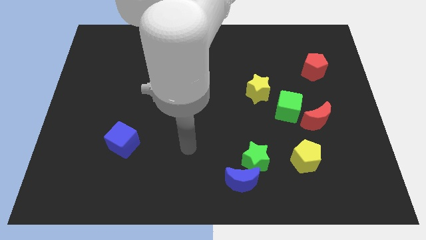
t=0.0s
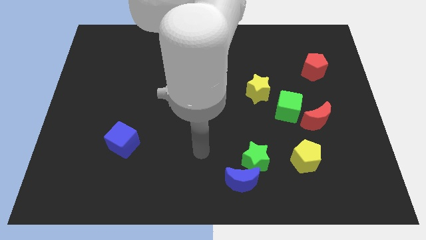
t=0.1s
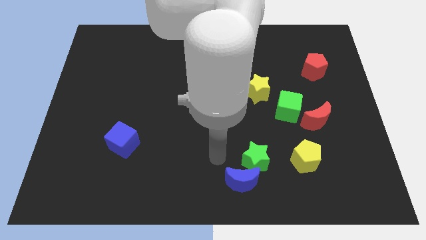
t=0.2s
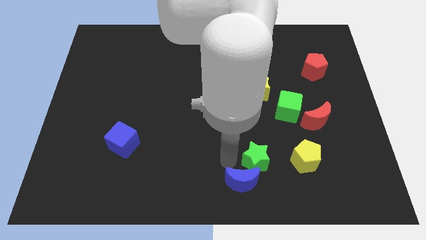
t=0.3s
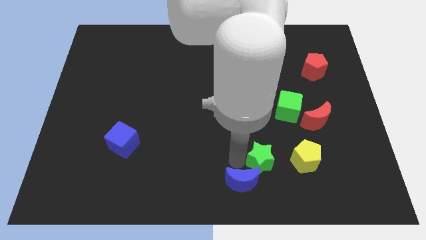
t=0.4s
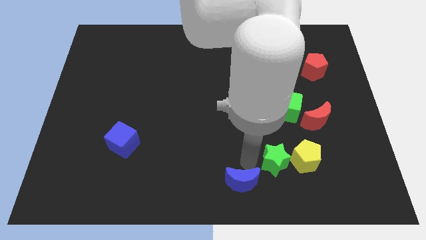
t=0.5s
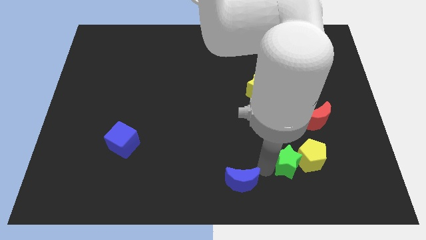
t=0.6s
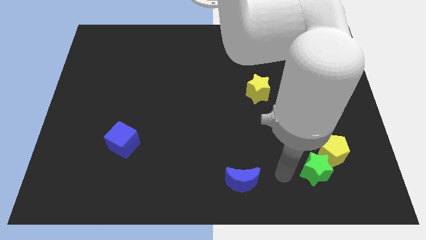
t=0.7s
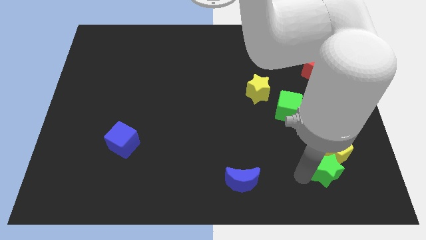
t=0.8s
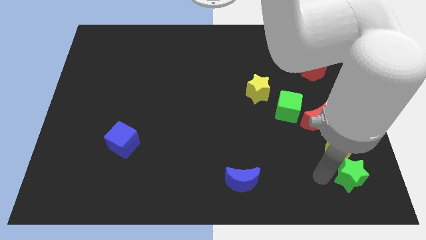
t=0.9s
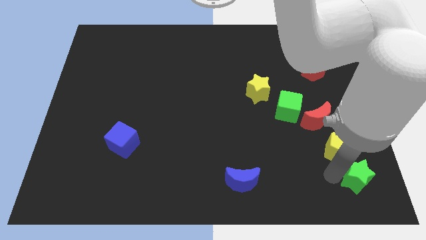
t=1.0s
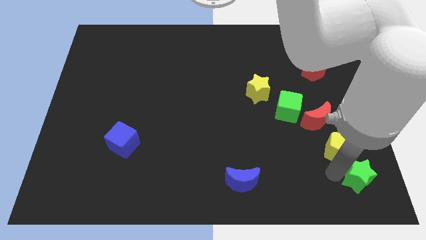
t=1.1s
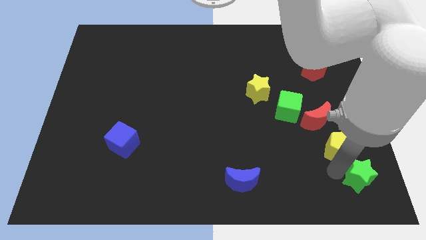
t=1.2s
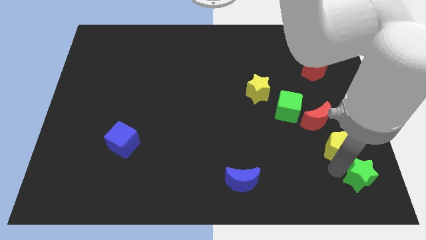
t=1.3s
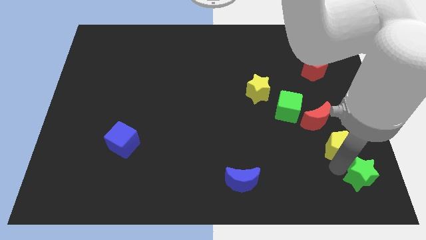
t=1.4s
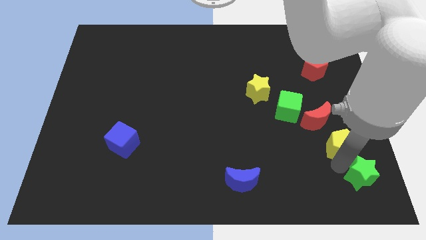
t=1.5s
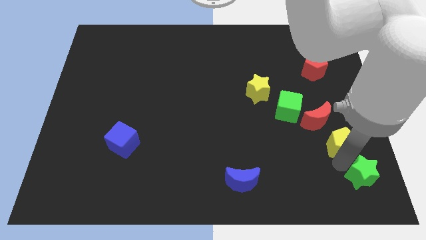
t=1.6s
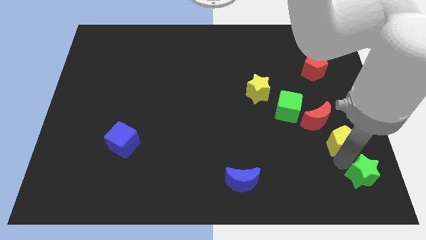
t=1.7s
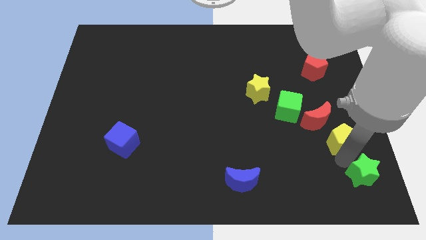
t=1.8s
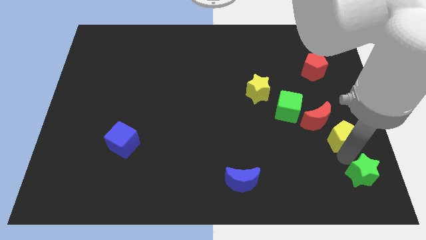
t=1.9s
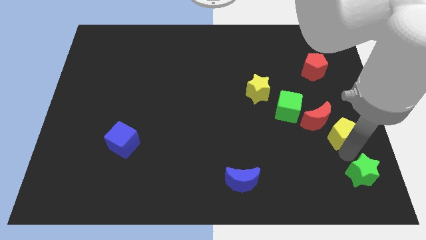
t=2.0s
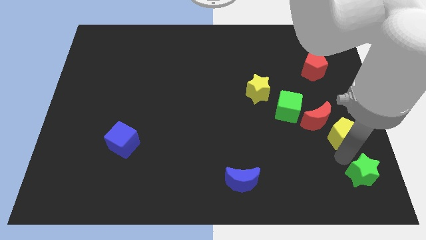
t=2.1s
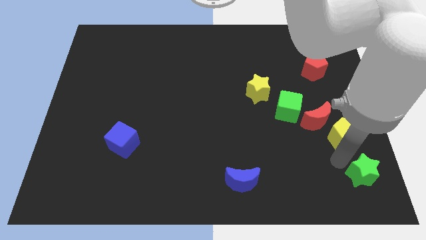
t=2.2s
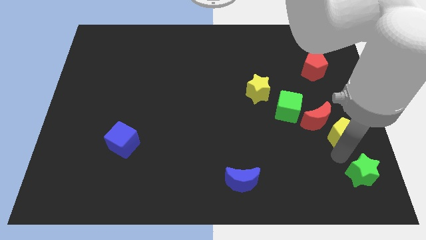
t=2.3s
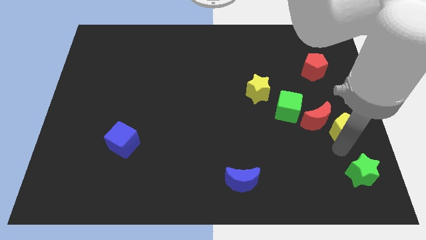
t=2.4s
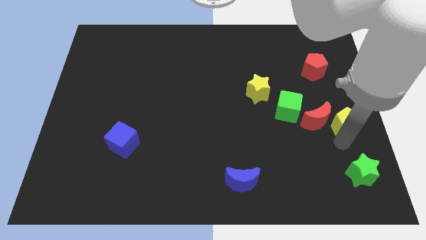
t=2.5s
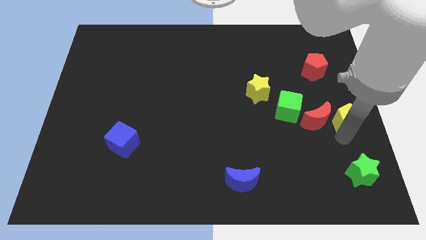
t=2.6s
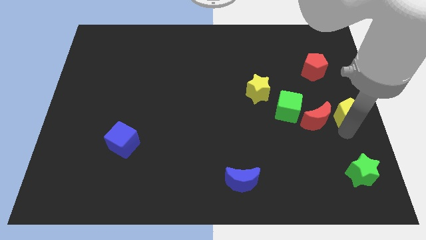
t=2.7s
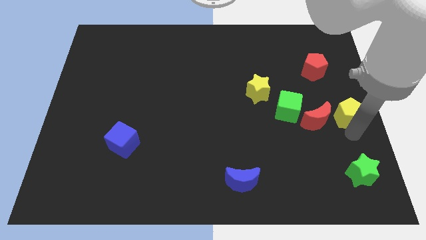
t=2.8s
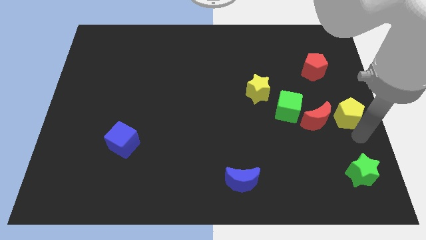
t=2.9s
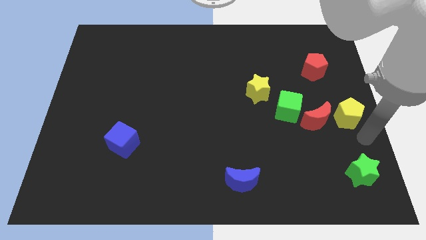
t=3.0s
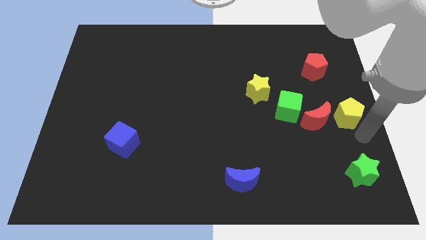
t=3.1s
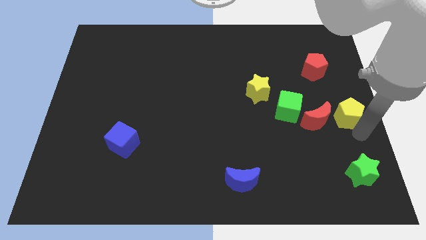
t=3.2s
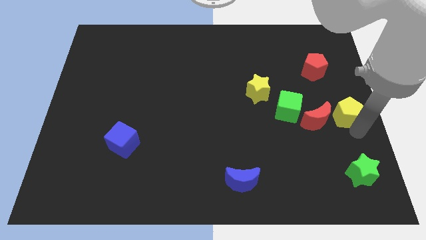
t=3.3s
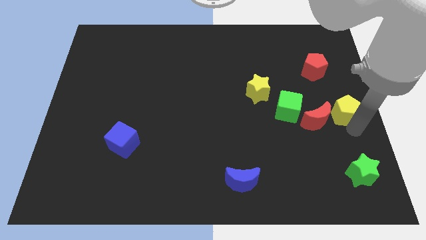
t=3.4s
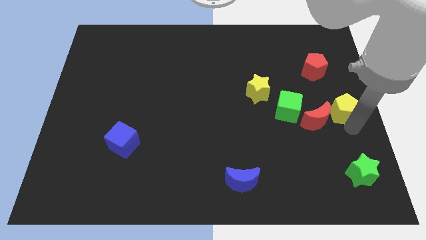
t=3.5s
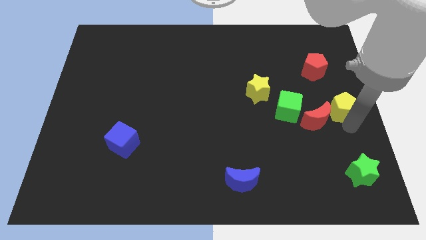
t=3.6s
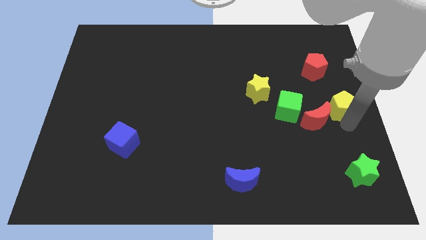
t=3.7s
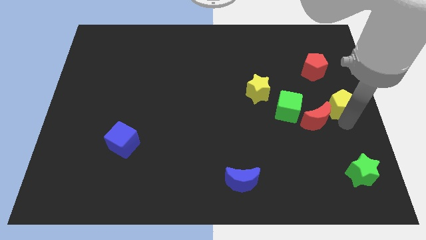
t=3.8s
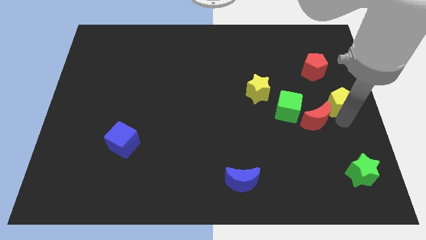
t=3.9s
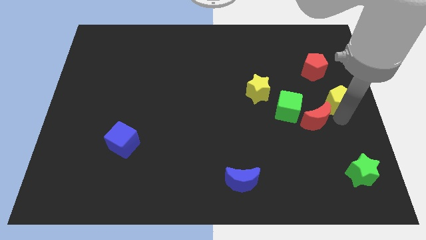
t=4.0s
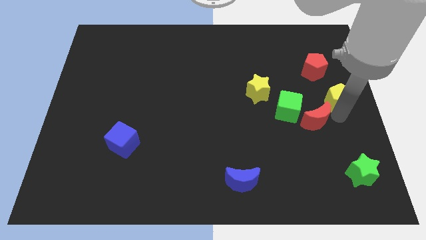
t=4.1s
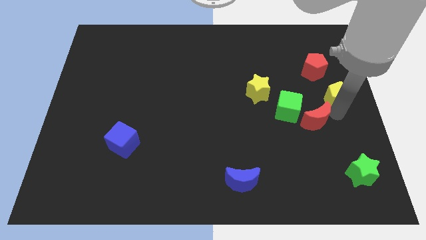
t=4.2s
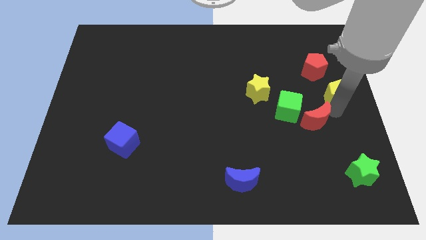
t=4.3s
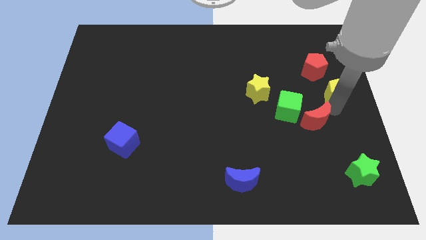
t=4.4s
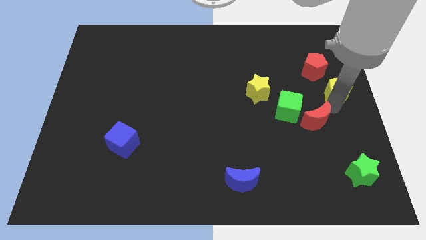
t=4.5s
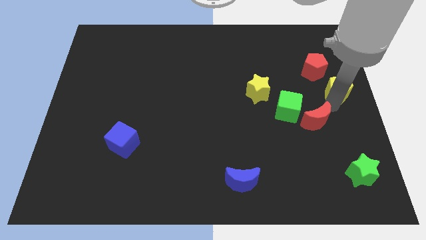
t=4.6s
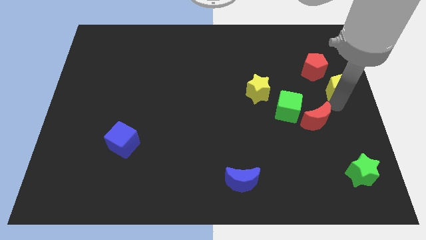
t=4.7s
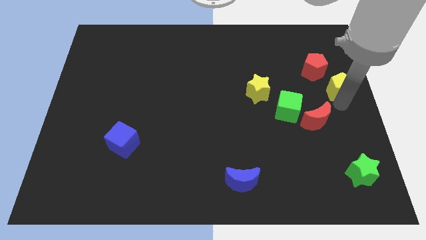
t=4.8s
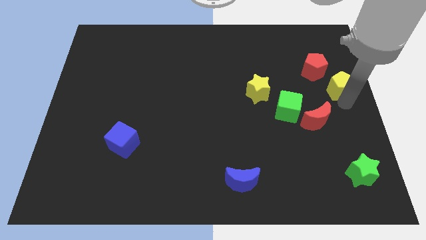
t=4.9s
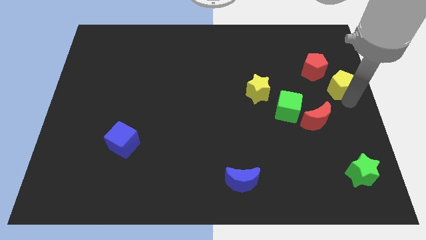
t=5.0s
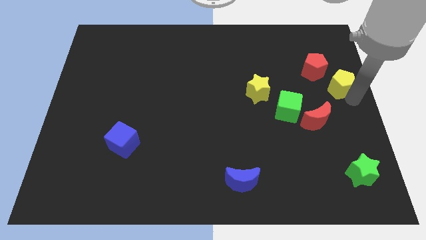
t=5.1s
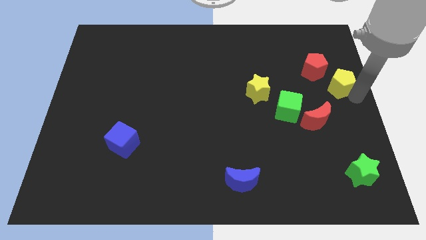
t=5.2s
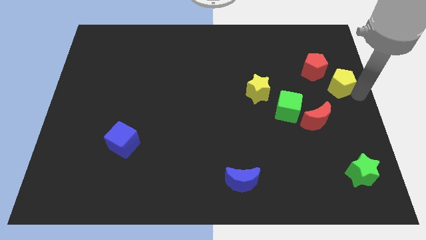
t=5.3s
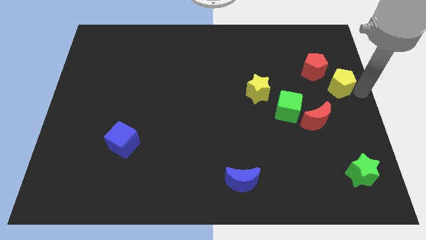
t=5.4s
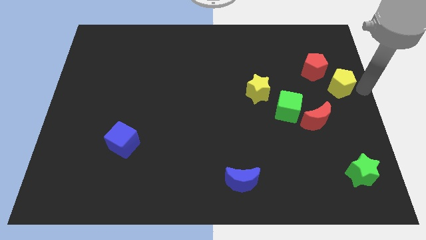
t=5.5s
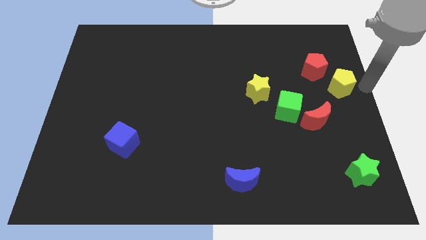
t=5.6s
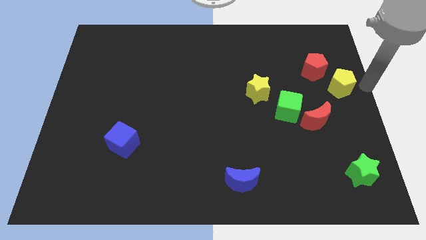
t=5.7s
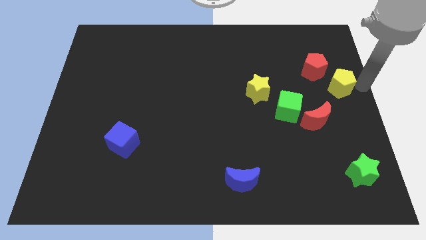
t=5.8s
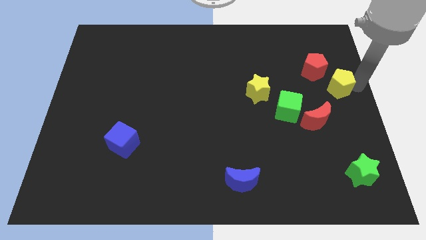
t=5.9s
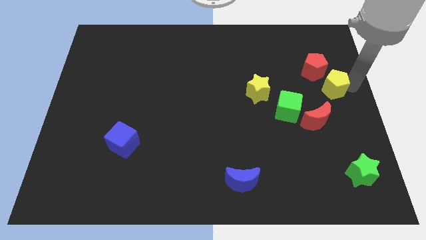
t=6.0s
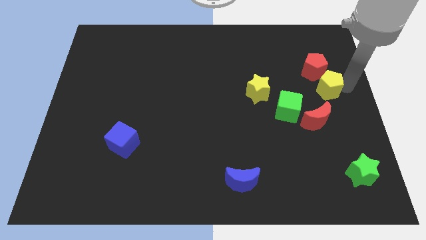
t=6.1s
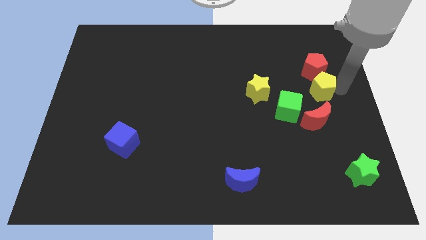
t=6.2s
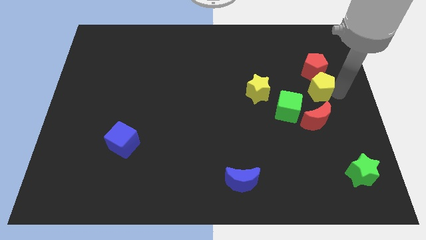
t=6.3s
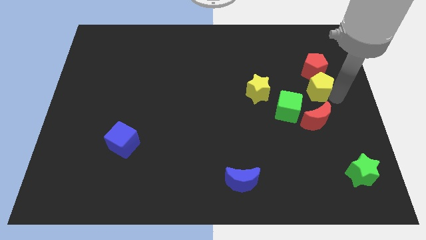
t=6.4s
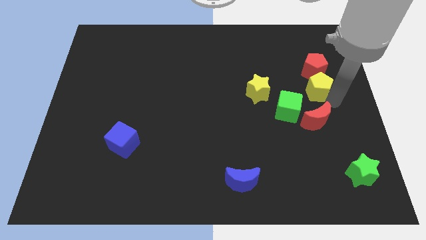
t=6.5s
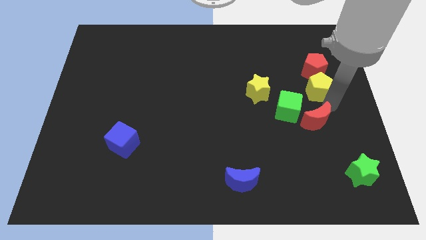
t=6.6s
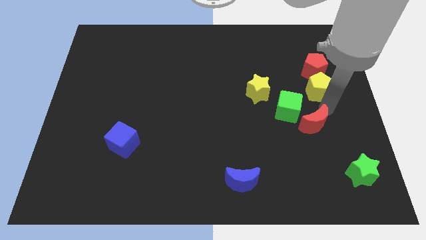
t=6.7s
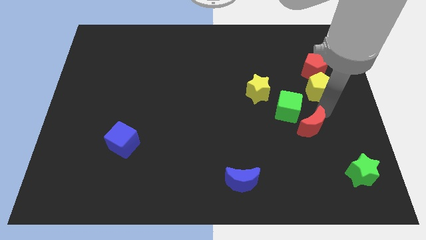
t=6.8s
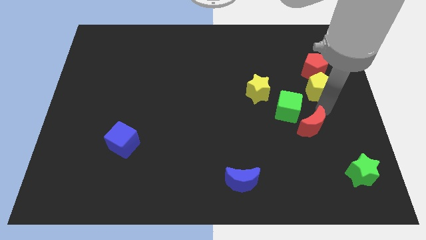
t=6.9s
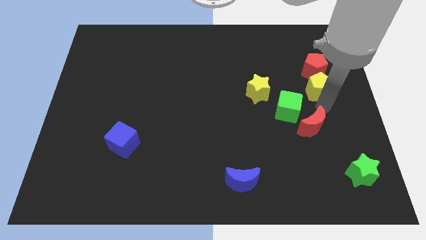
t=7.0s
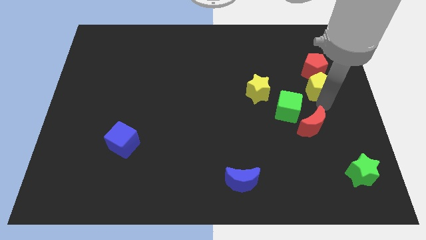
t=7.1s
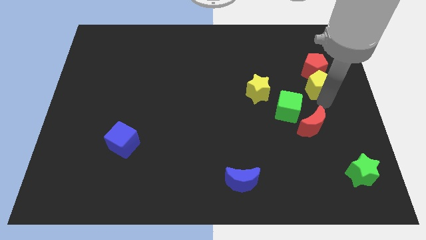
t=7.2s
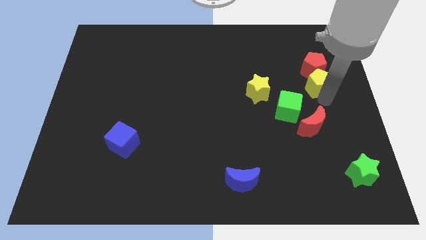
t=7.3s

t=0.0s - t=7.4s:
slide the yellow pentagon towards the red pentagon
